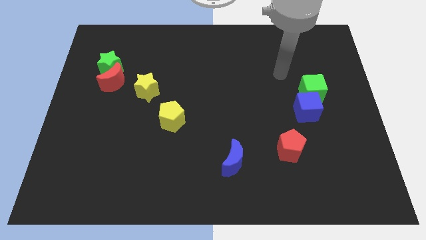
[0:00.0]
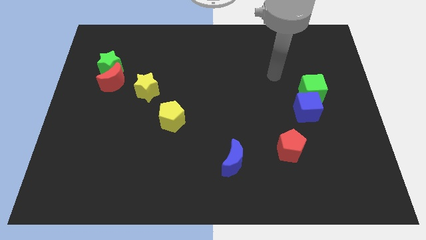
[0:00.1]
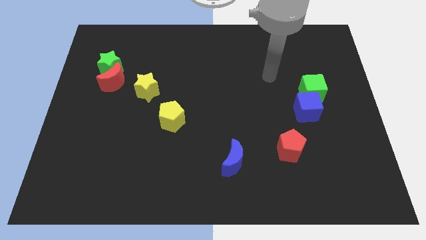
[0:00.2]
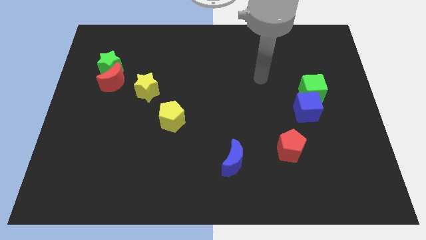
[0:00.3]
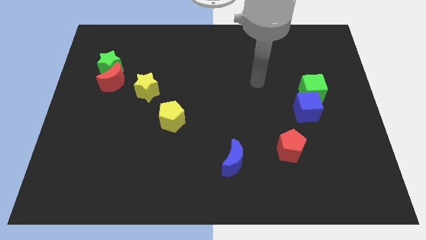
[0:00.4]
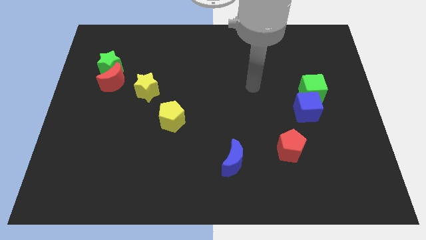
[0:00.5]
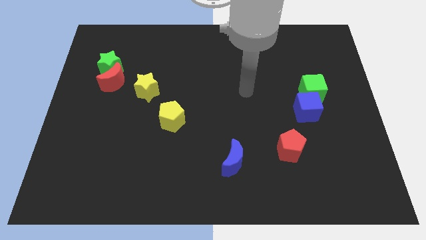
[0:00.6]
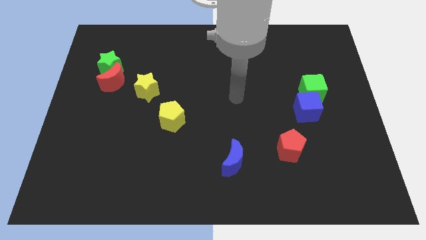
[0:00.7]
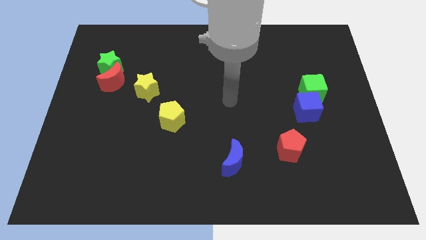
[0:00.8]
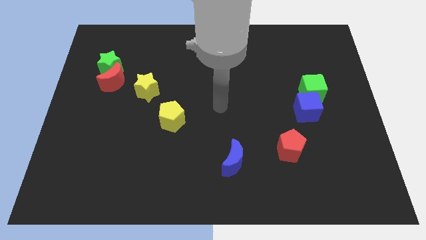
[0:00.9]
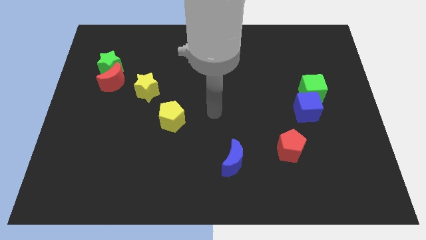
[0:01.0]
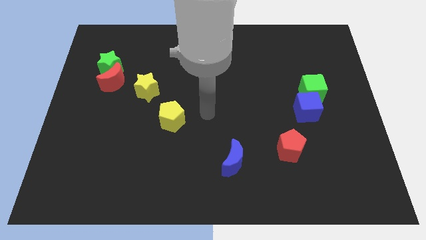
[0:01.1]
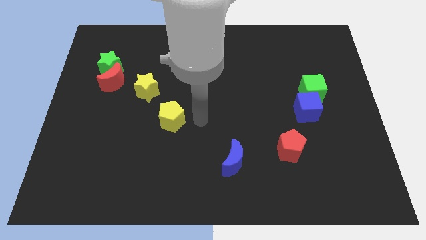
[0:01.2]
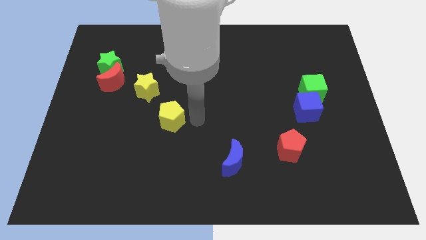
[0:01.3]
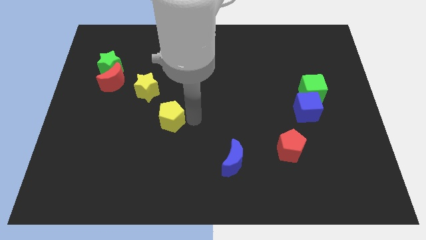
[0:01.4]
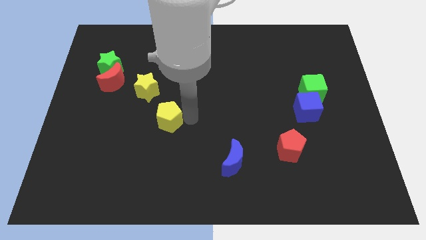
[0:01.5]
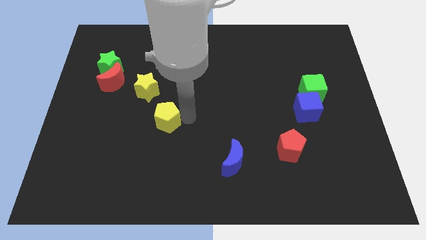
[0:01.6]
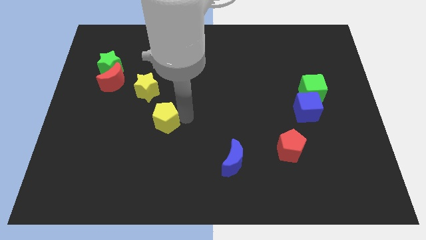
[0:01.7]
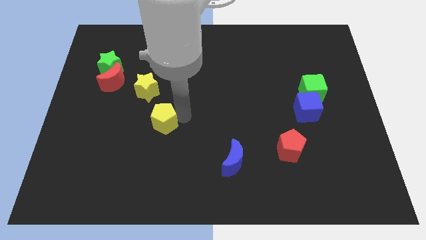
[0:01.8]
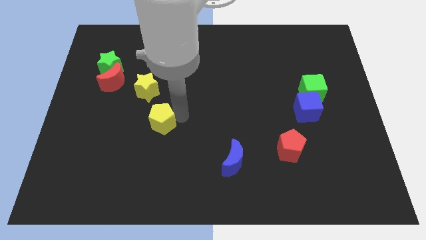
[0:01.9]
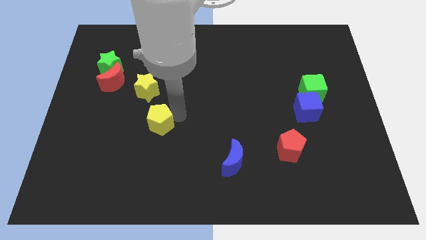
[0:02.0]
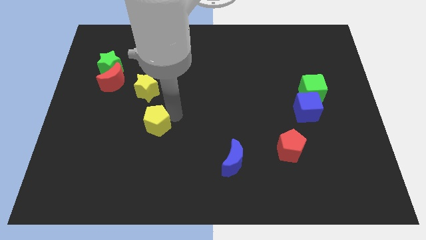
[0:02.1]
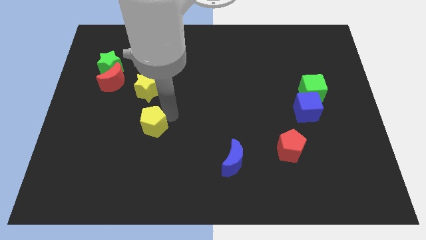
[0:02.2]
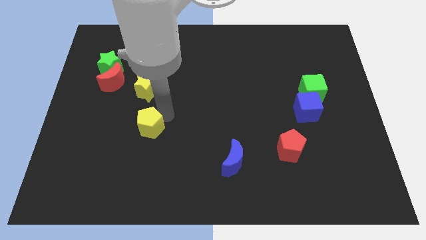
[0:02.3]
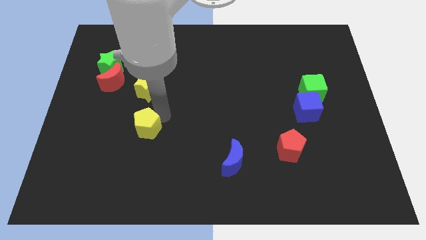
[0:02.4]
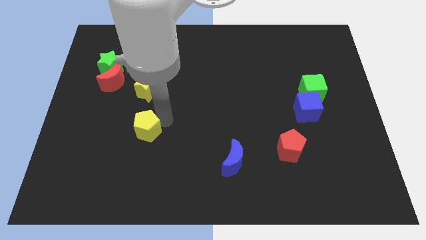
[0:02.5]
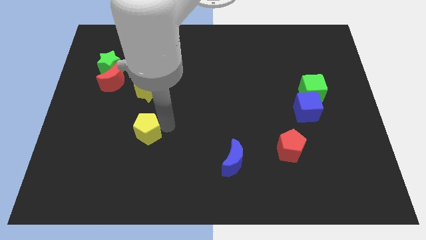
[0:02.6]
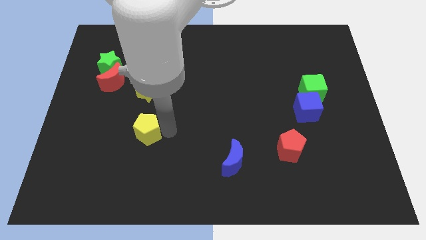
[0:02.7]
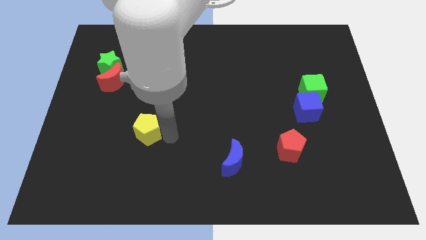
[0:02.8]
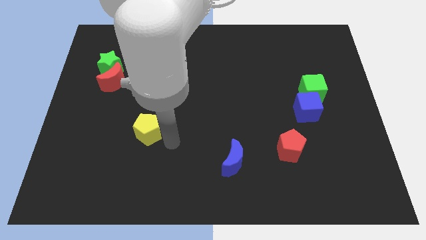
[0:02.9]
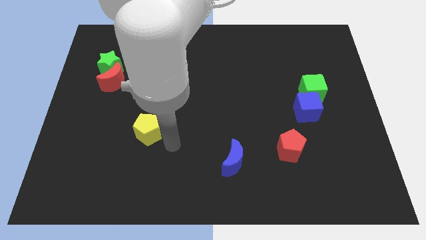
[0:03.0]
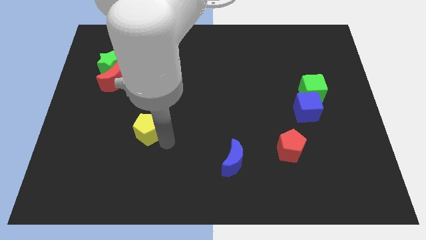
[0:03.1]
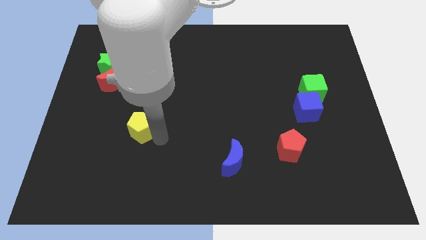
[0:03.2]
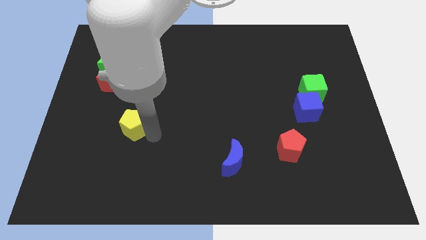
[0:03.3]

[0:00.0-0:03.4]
slightly push the yellow pentagon to the left

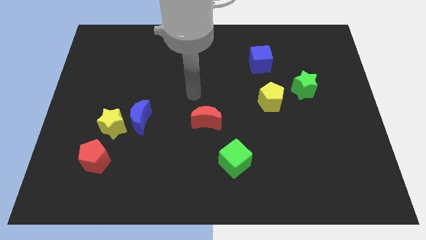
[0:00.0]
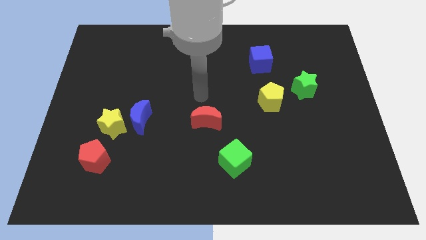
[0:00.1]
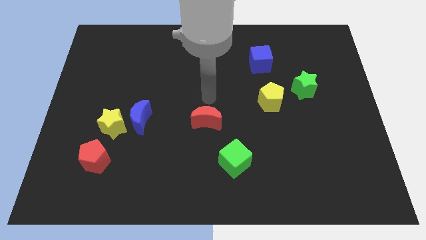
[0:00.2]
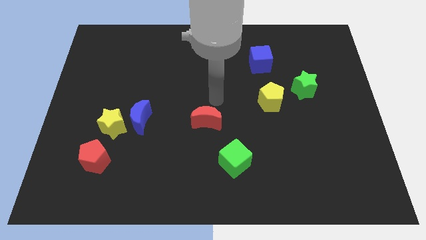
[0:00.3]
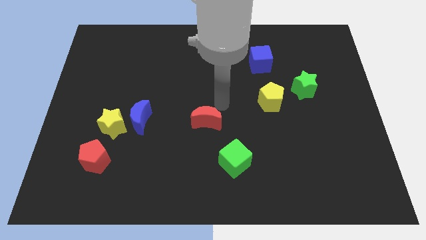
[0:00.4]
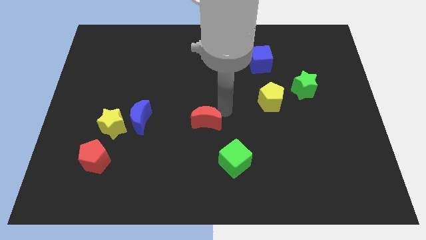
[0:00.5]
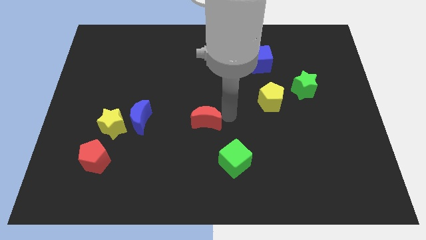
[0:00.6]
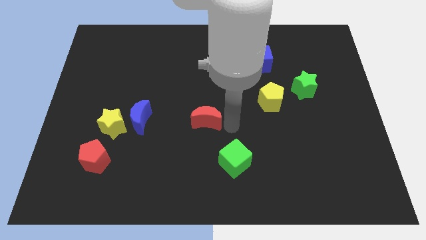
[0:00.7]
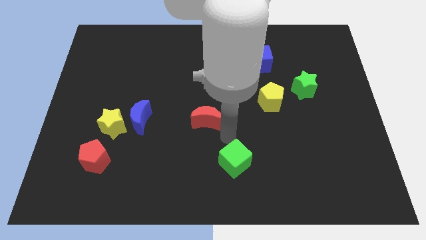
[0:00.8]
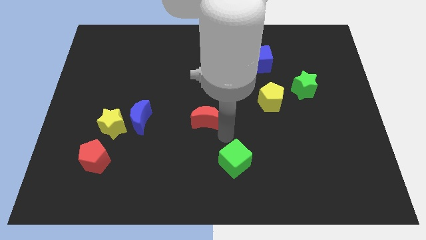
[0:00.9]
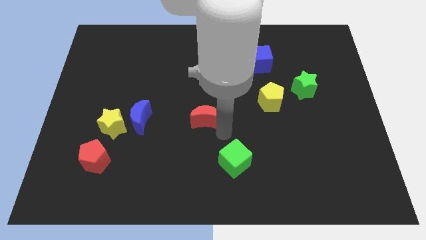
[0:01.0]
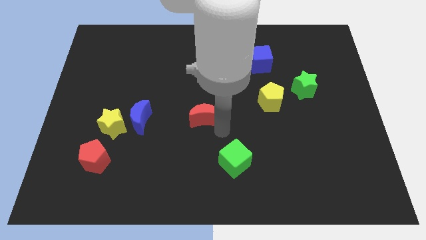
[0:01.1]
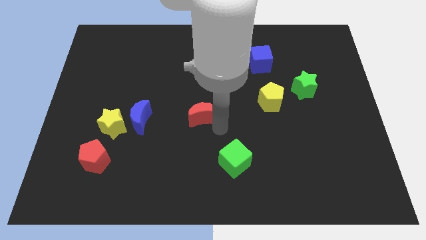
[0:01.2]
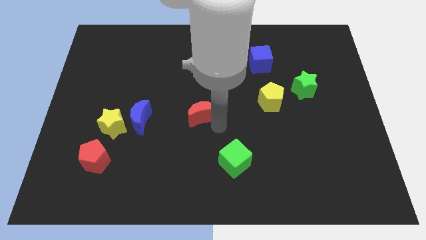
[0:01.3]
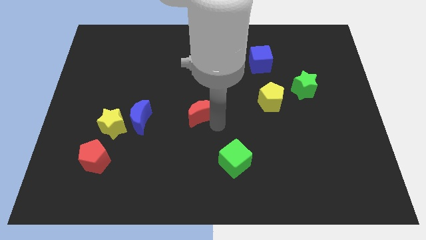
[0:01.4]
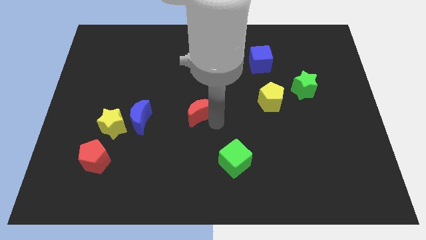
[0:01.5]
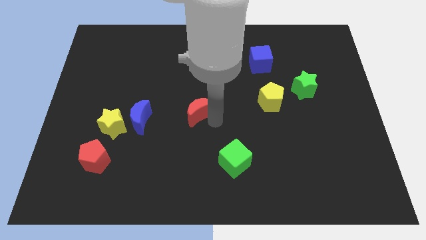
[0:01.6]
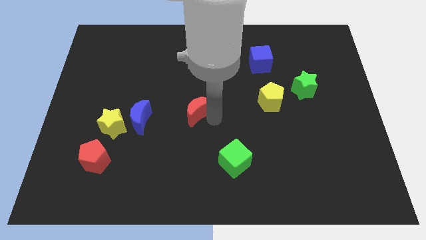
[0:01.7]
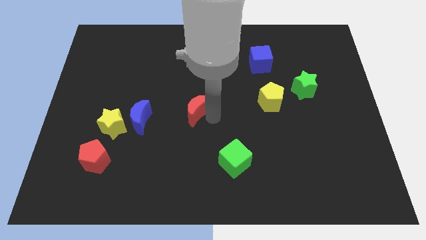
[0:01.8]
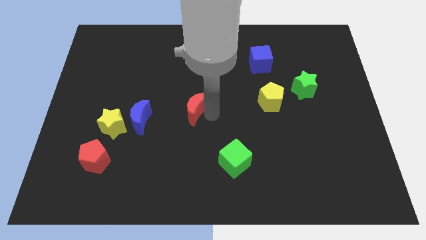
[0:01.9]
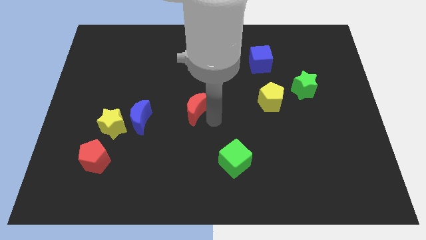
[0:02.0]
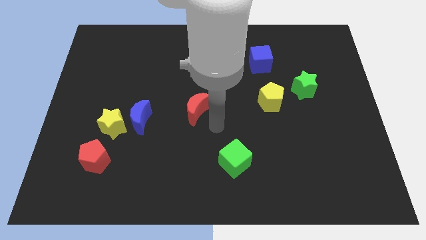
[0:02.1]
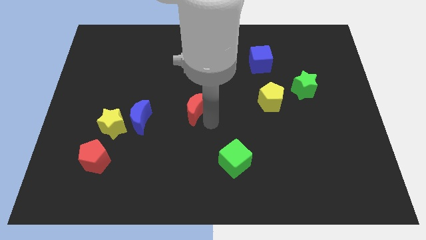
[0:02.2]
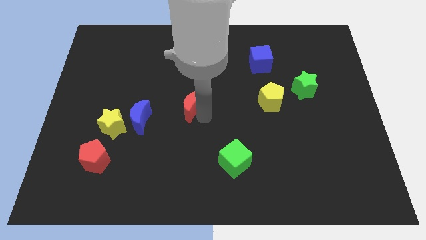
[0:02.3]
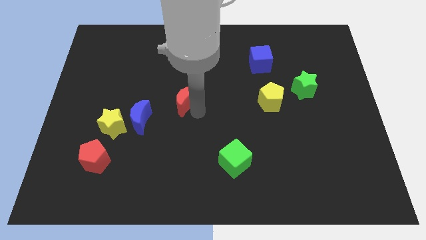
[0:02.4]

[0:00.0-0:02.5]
slightly move the red moon diagonally up and to the left

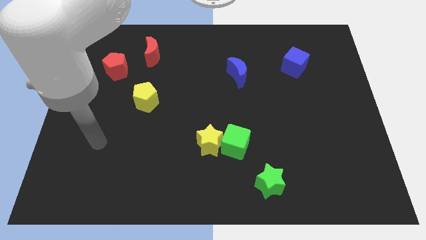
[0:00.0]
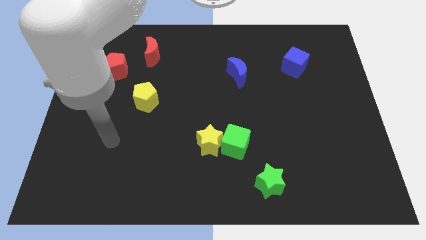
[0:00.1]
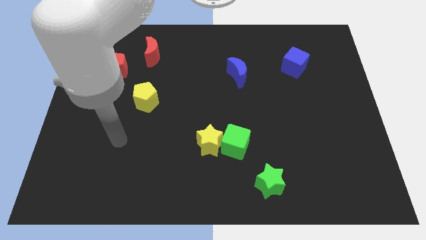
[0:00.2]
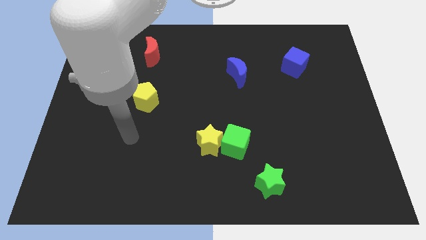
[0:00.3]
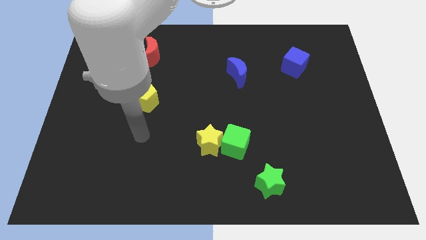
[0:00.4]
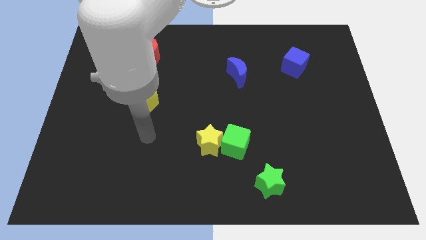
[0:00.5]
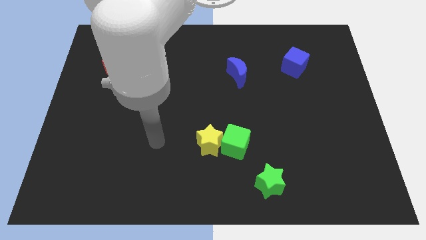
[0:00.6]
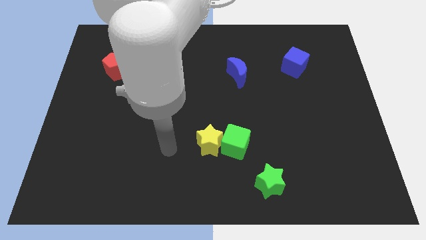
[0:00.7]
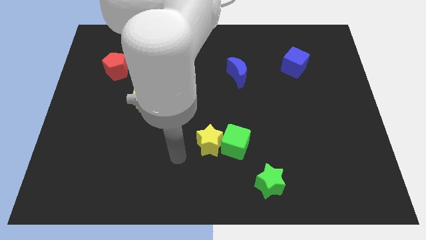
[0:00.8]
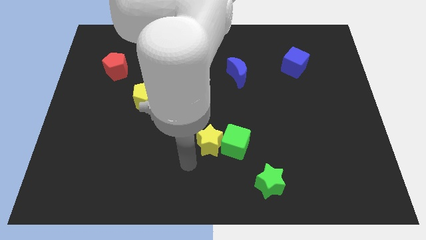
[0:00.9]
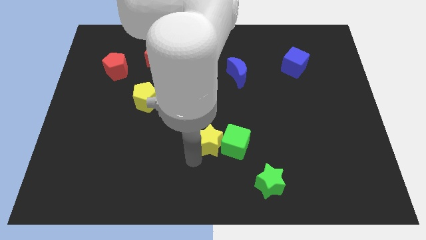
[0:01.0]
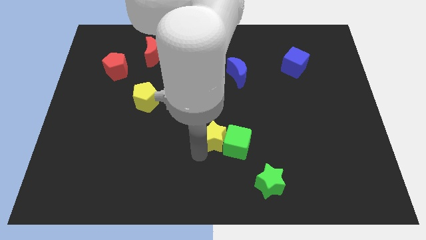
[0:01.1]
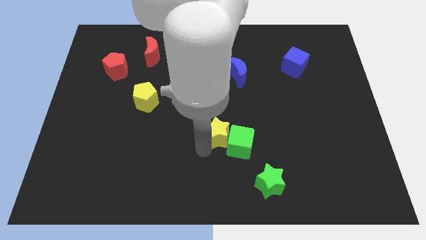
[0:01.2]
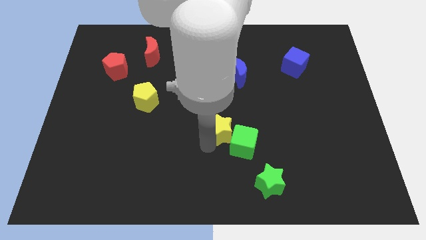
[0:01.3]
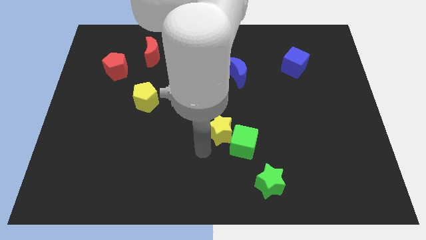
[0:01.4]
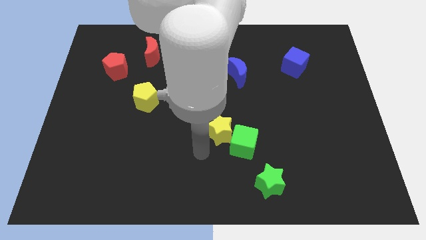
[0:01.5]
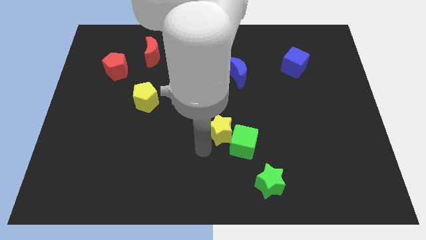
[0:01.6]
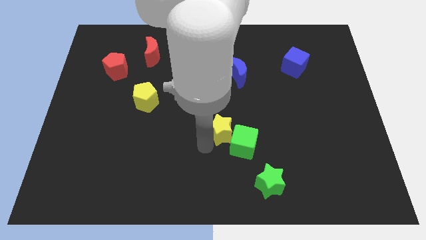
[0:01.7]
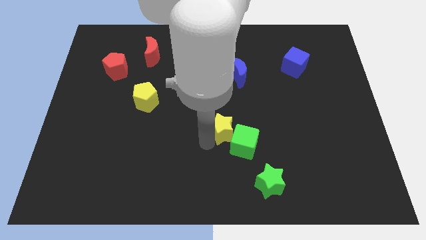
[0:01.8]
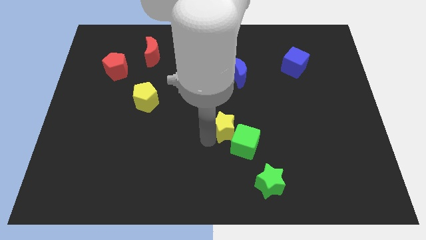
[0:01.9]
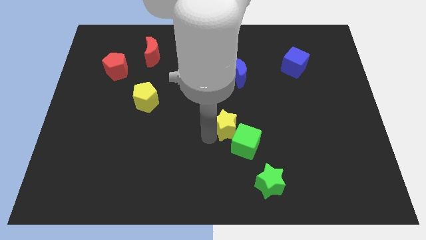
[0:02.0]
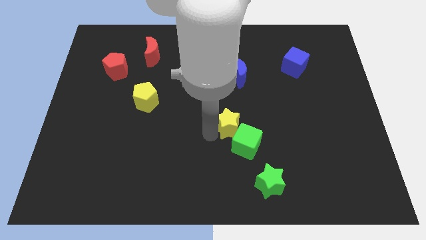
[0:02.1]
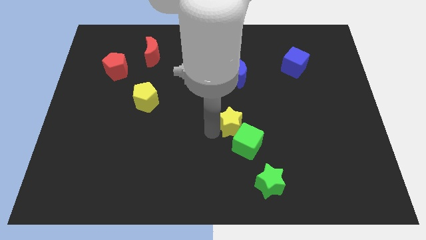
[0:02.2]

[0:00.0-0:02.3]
push the yellow star a bit upwards and then right
